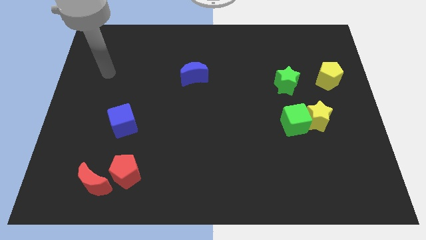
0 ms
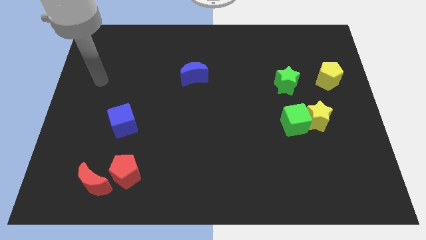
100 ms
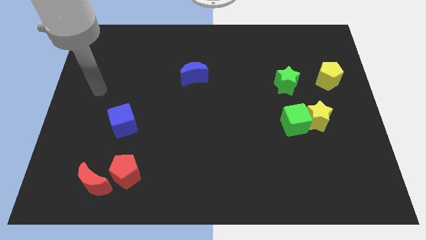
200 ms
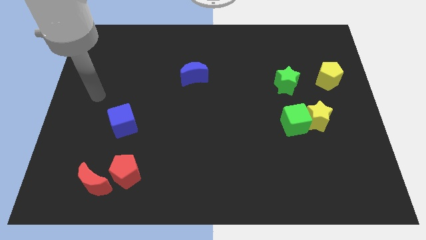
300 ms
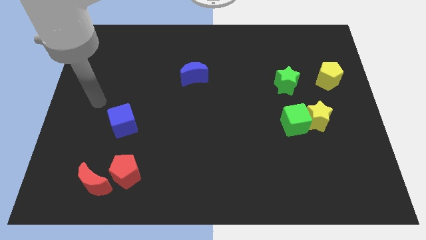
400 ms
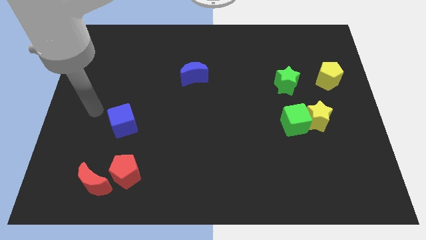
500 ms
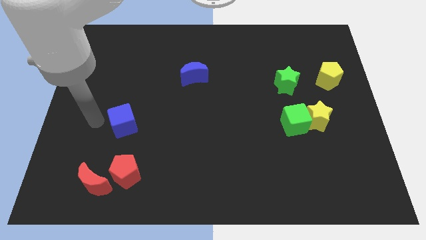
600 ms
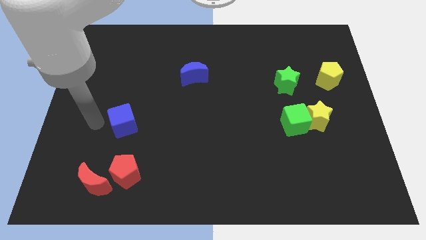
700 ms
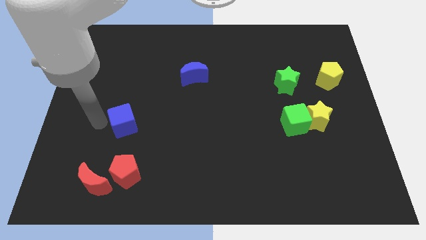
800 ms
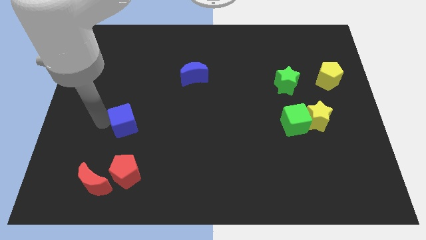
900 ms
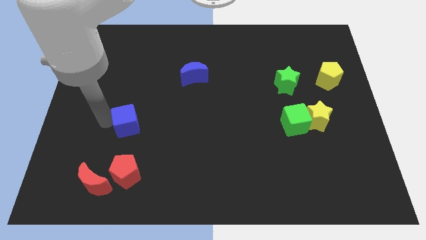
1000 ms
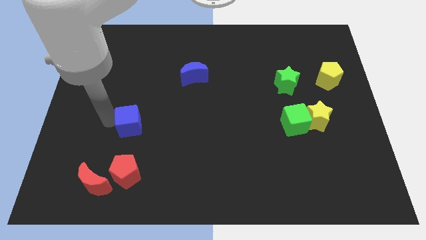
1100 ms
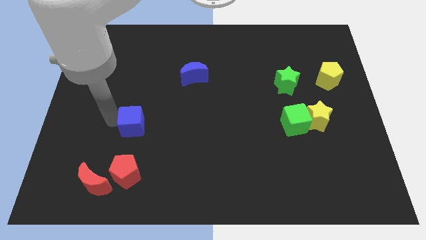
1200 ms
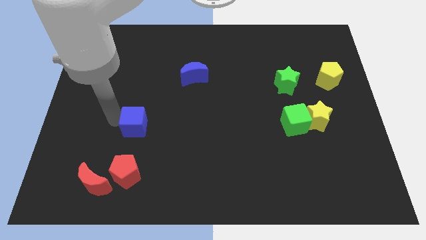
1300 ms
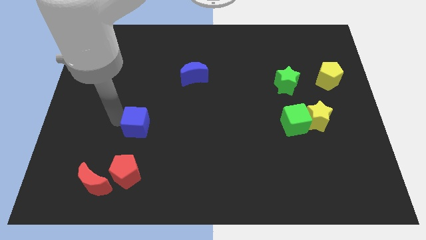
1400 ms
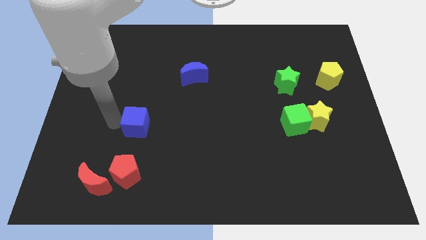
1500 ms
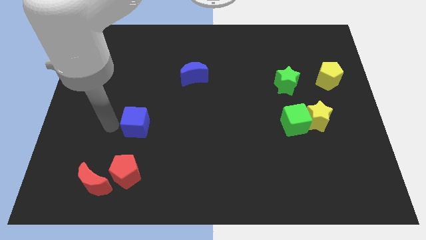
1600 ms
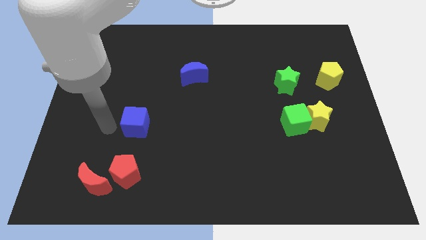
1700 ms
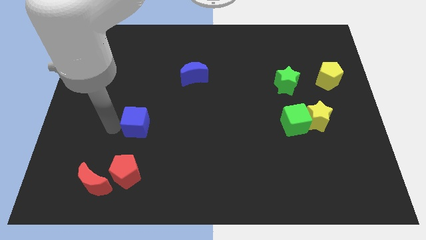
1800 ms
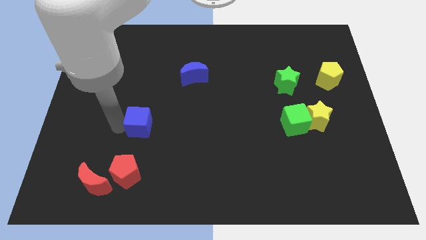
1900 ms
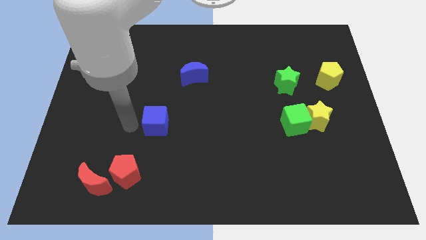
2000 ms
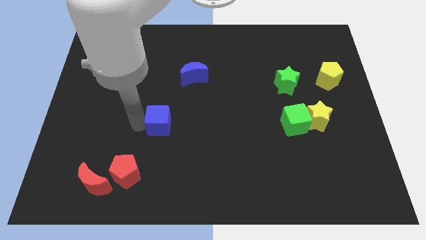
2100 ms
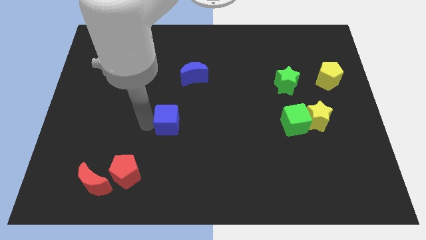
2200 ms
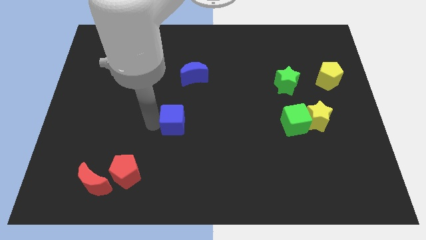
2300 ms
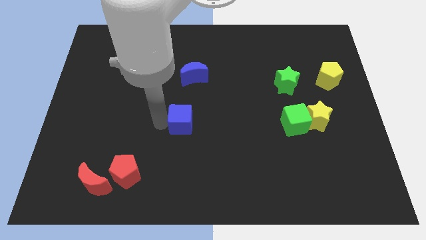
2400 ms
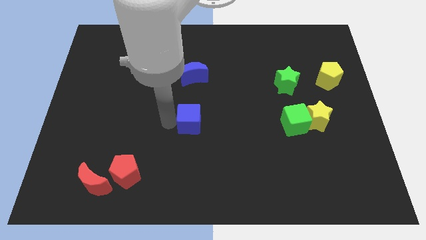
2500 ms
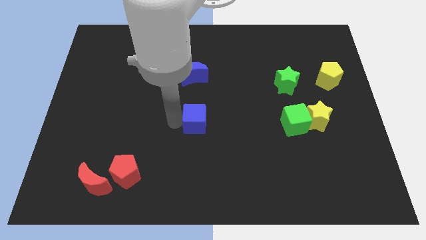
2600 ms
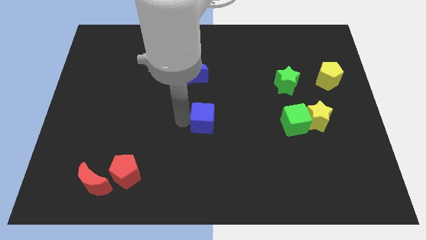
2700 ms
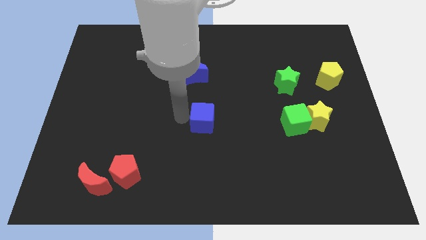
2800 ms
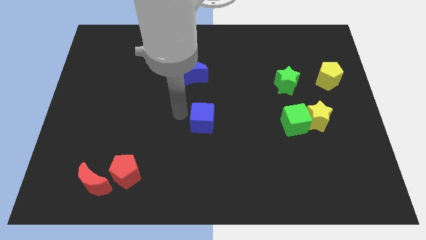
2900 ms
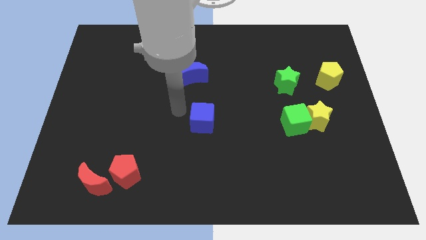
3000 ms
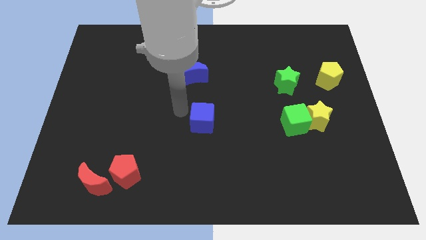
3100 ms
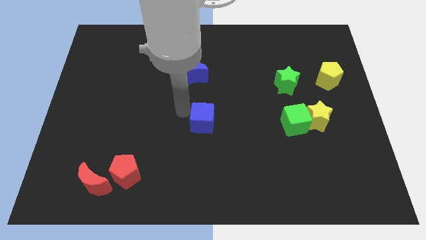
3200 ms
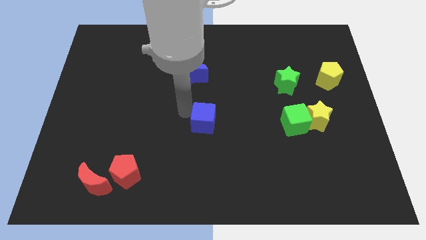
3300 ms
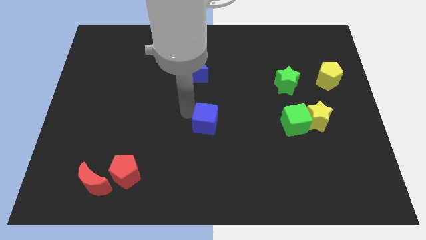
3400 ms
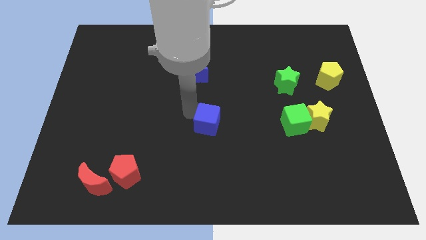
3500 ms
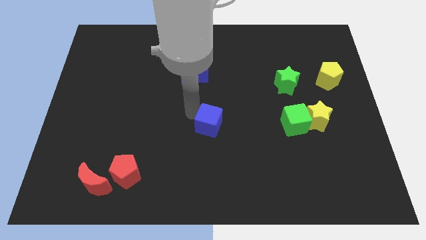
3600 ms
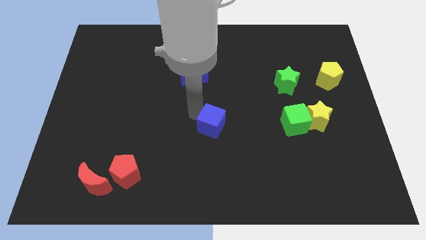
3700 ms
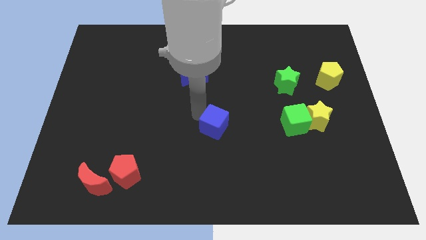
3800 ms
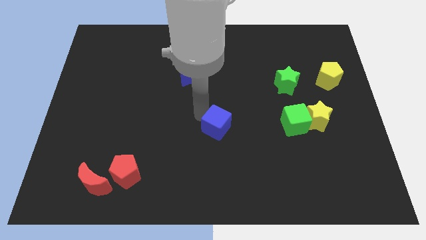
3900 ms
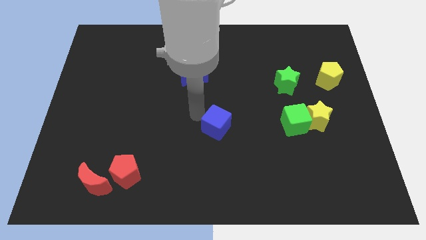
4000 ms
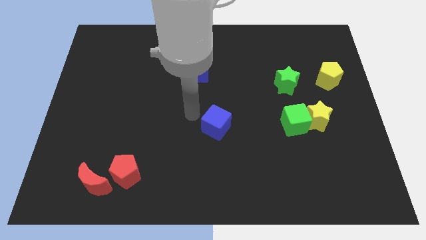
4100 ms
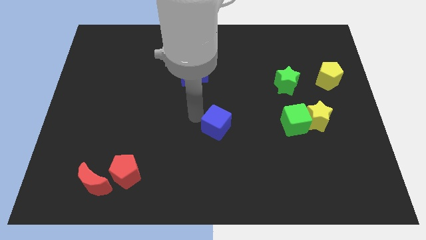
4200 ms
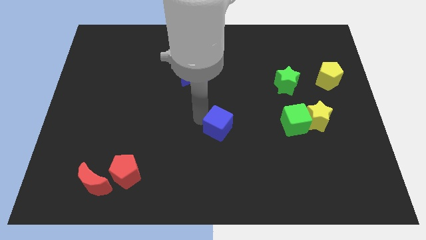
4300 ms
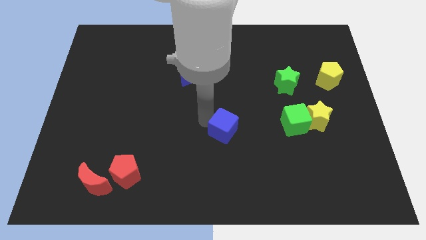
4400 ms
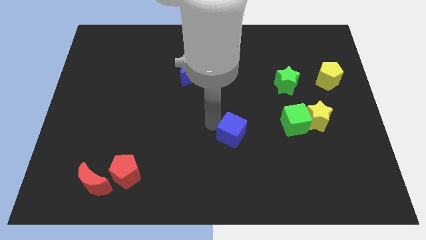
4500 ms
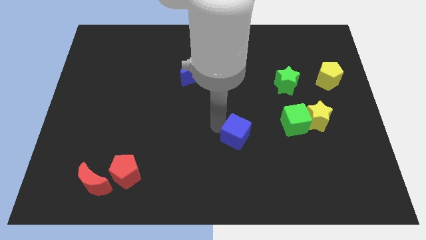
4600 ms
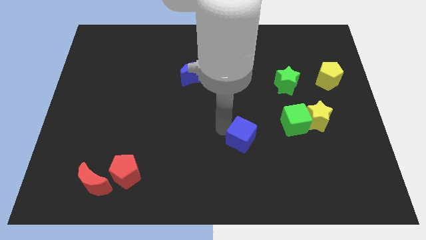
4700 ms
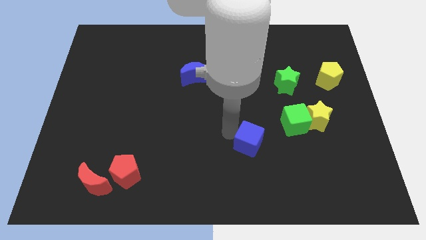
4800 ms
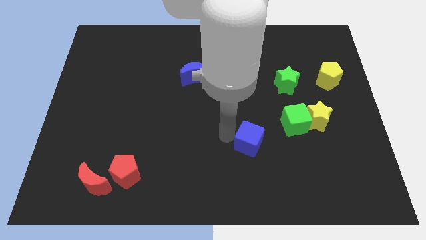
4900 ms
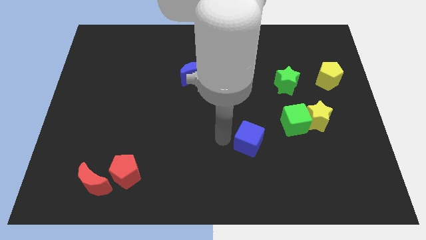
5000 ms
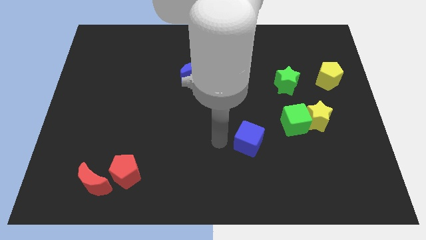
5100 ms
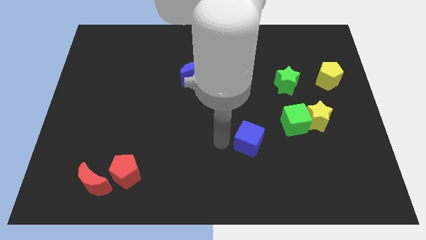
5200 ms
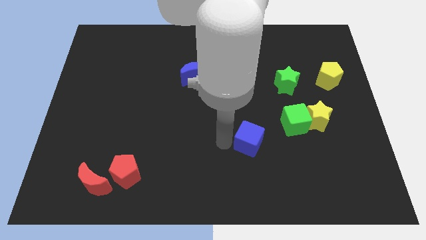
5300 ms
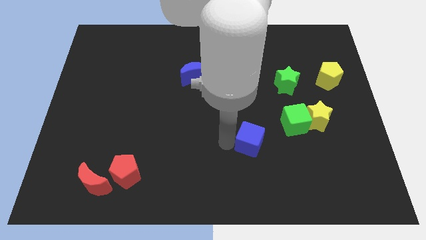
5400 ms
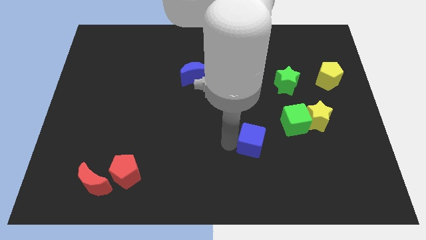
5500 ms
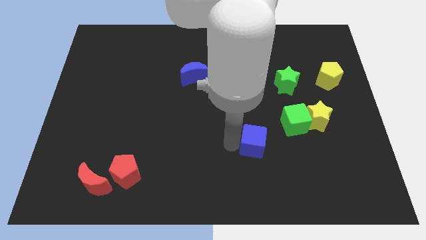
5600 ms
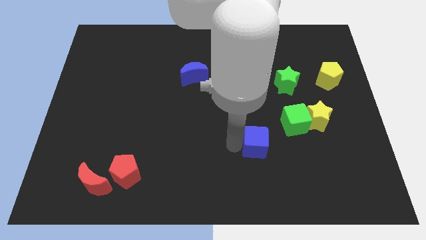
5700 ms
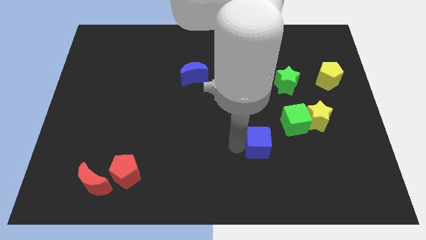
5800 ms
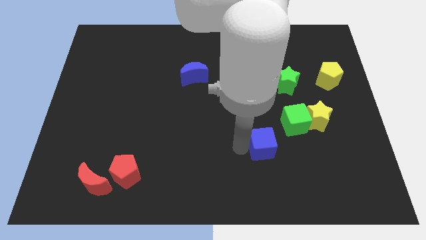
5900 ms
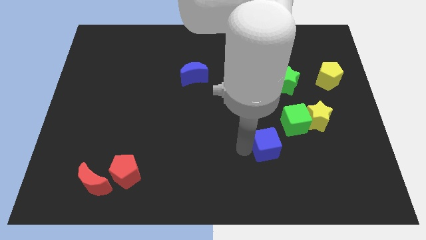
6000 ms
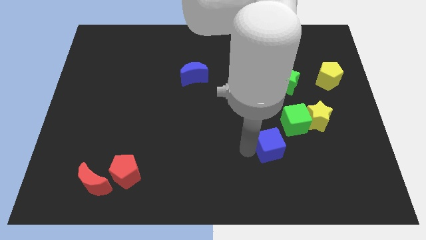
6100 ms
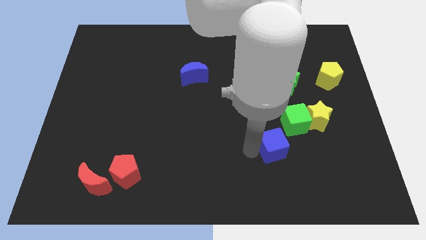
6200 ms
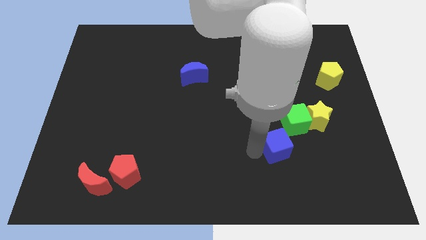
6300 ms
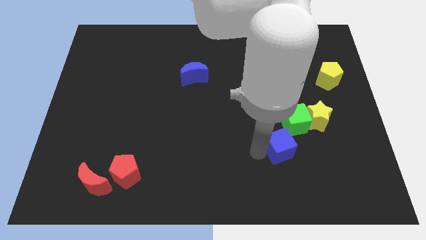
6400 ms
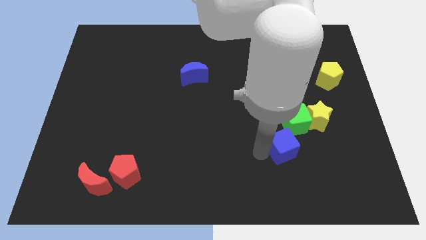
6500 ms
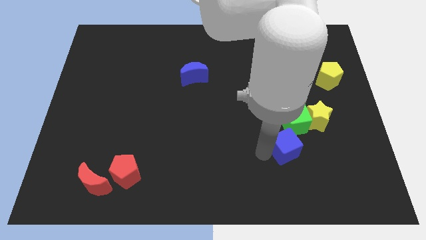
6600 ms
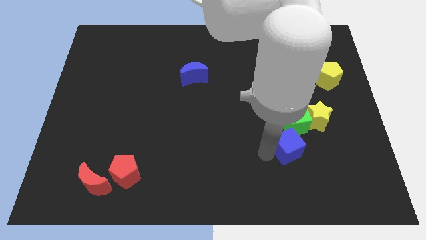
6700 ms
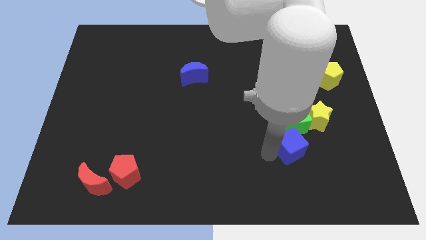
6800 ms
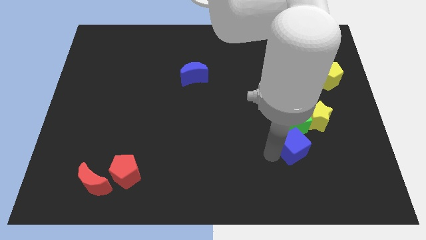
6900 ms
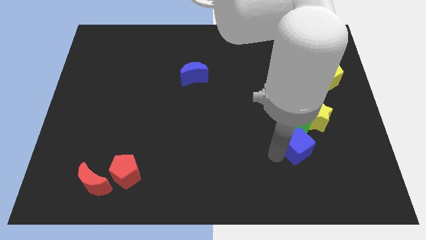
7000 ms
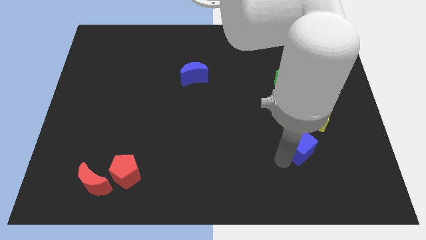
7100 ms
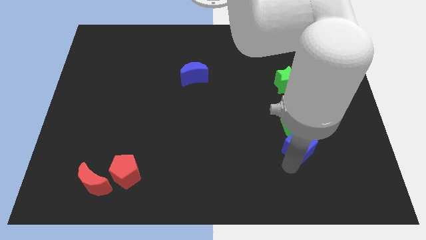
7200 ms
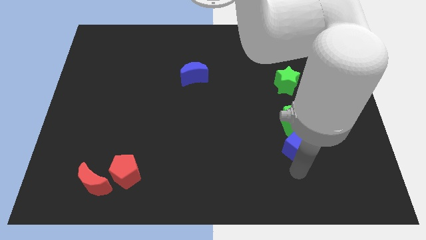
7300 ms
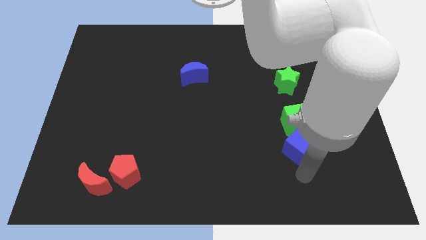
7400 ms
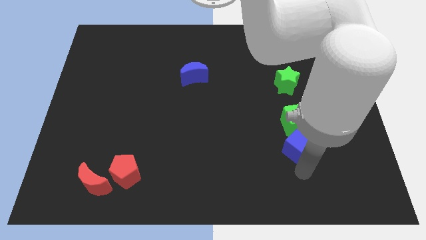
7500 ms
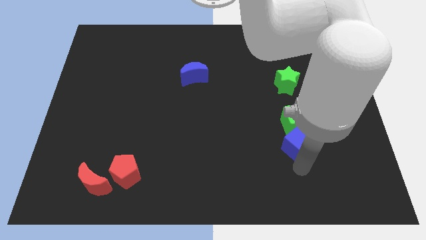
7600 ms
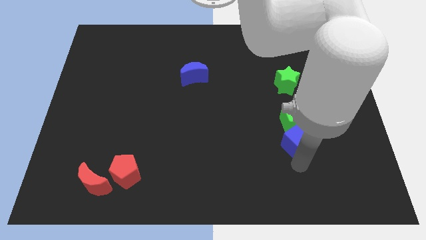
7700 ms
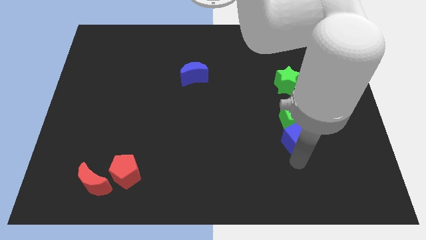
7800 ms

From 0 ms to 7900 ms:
push the blue cube to the bottom of the green star
